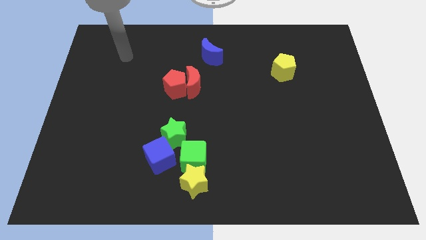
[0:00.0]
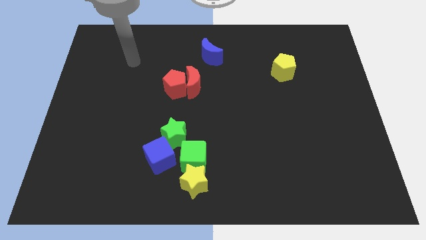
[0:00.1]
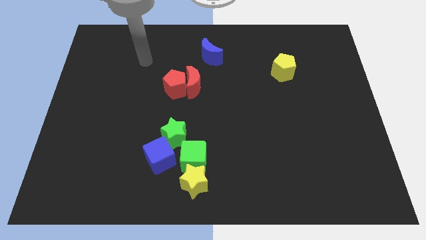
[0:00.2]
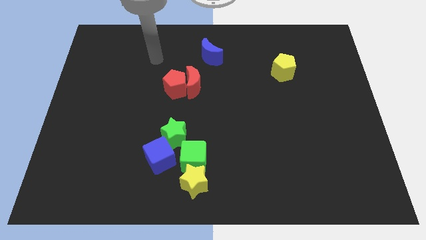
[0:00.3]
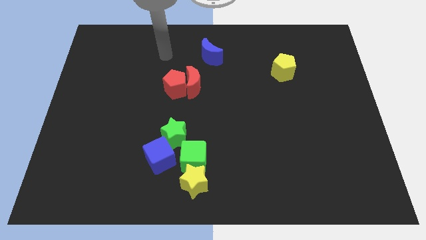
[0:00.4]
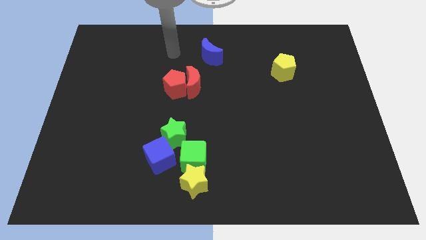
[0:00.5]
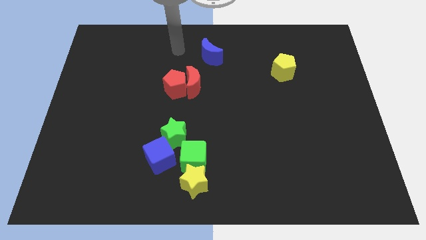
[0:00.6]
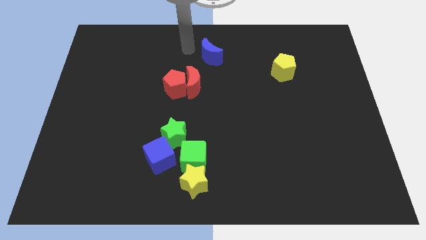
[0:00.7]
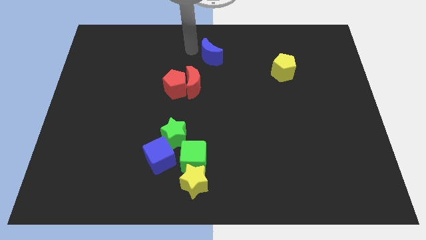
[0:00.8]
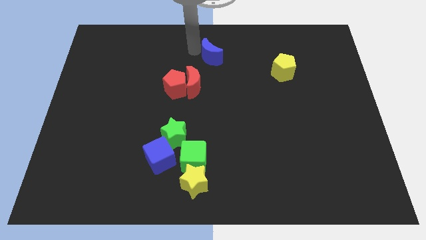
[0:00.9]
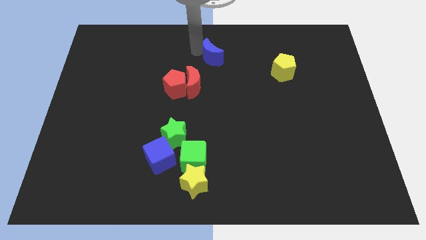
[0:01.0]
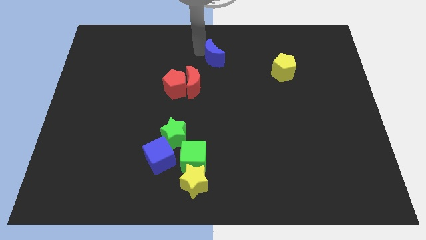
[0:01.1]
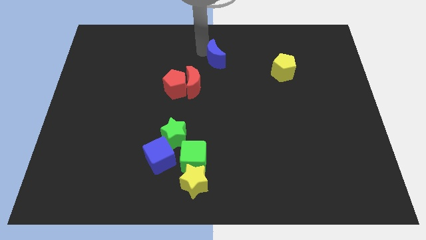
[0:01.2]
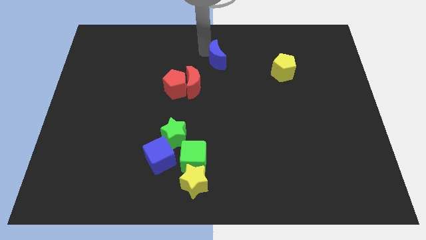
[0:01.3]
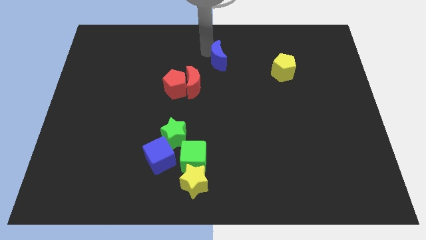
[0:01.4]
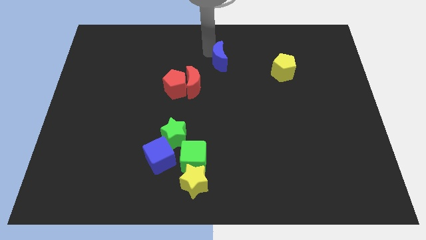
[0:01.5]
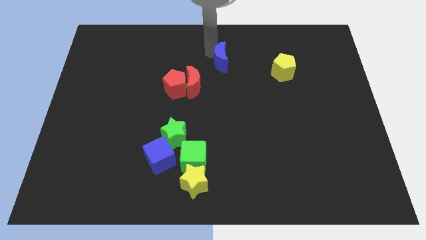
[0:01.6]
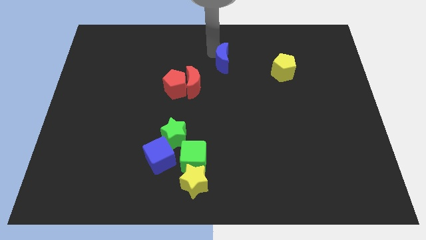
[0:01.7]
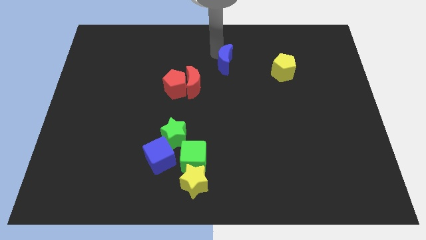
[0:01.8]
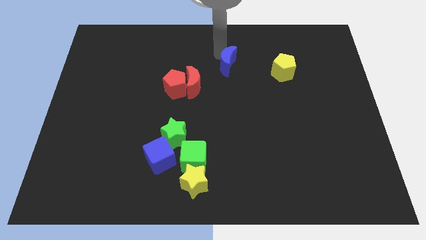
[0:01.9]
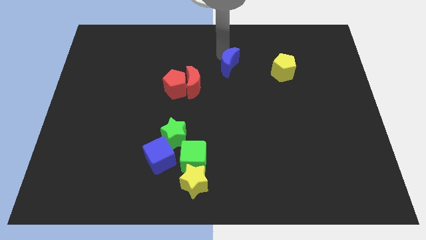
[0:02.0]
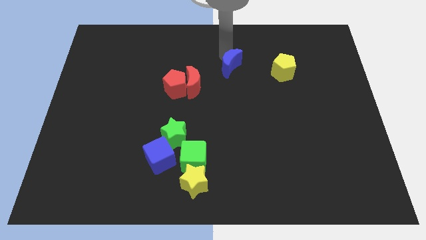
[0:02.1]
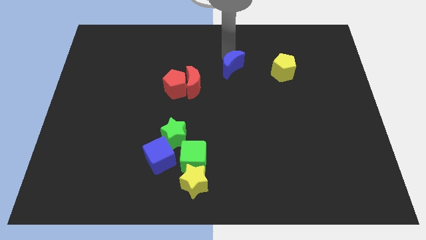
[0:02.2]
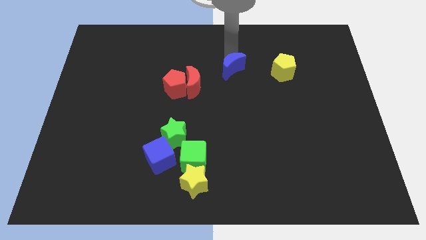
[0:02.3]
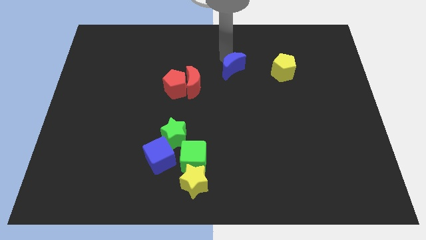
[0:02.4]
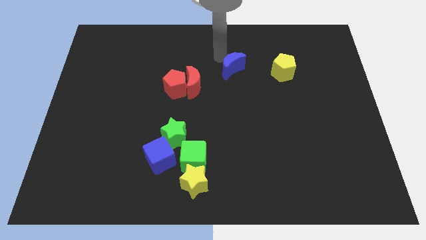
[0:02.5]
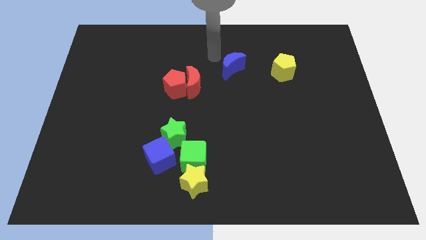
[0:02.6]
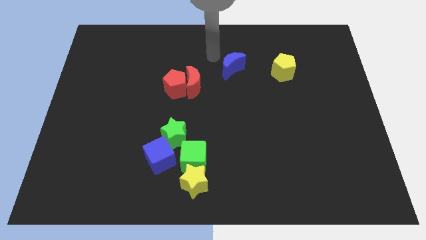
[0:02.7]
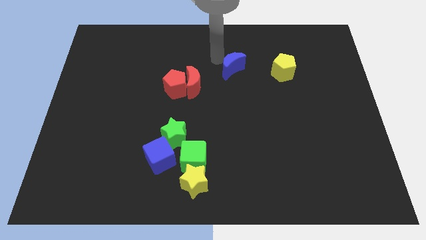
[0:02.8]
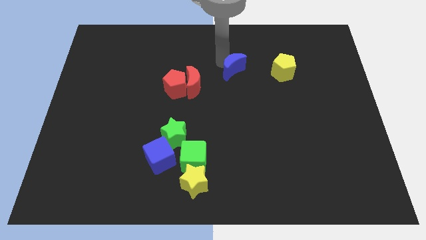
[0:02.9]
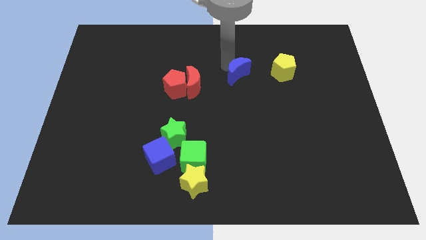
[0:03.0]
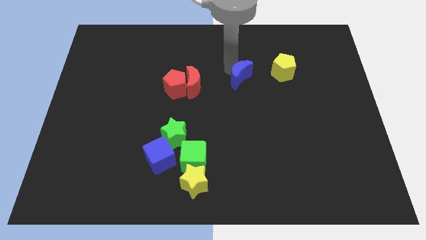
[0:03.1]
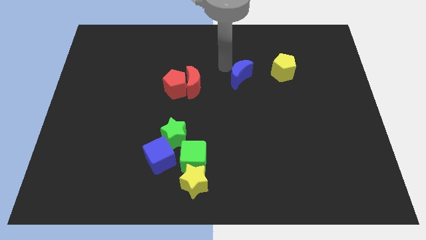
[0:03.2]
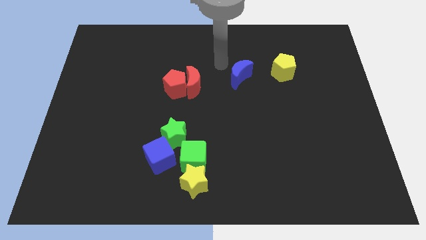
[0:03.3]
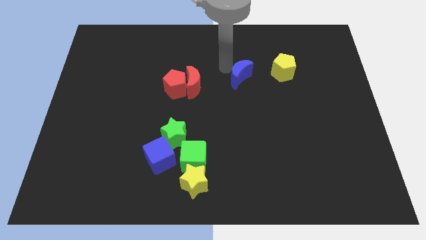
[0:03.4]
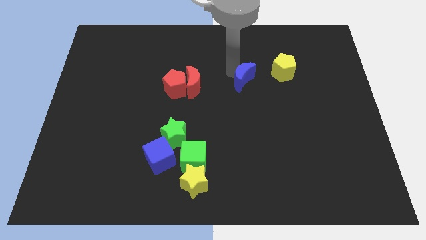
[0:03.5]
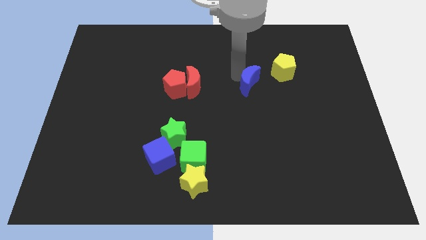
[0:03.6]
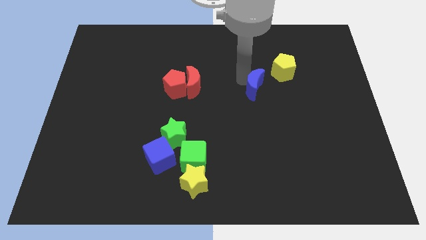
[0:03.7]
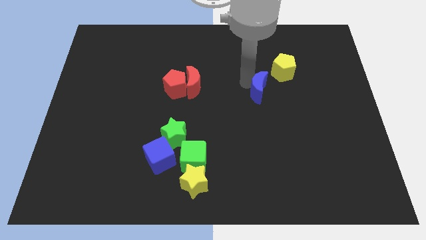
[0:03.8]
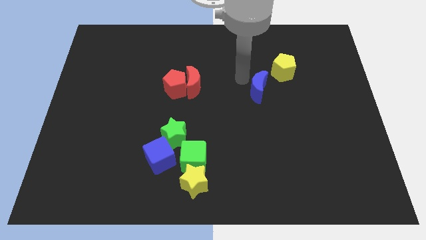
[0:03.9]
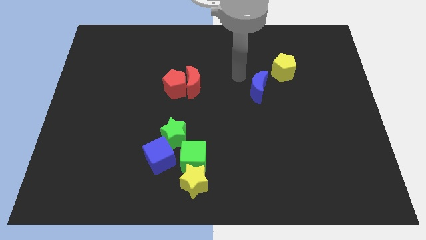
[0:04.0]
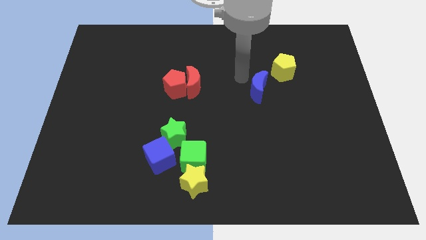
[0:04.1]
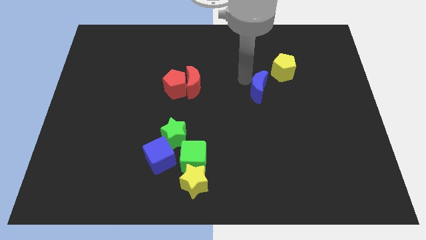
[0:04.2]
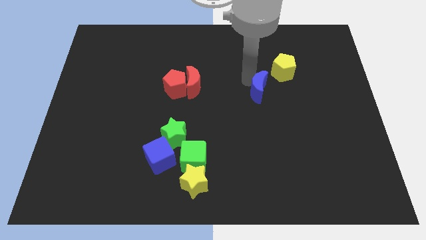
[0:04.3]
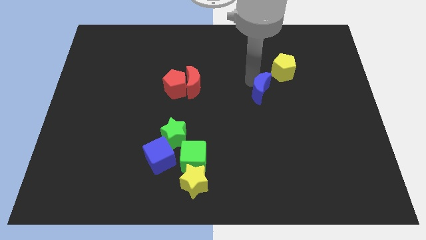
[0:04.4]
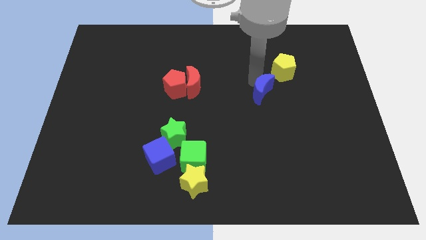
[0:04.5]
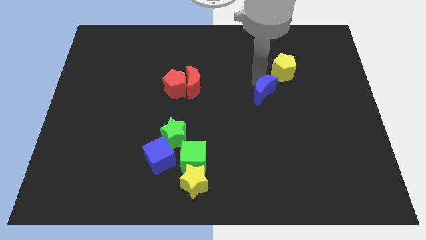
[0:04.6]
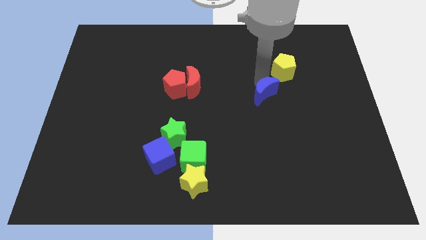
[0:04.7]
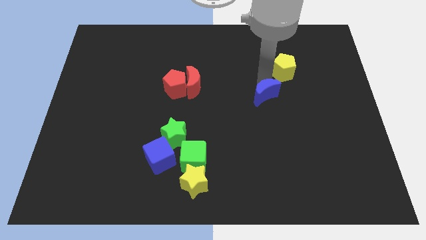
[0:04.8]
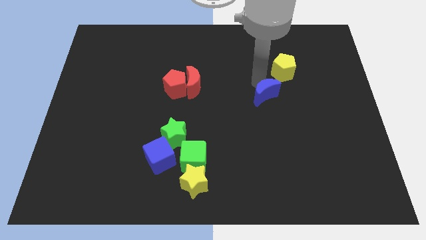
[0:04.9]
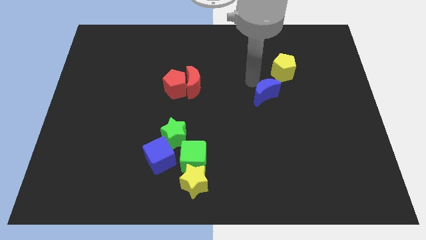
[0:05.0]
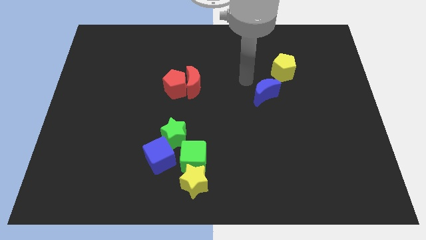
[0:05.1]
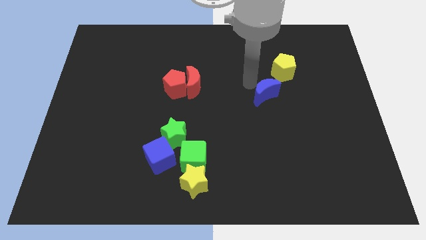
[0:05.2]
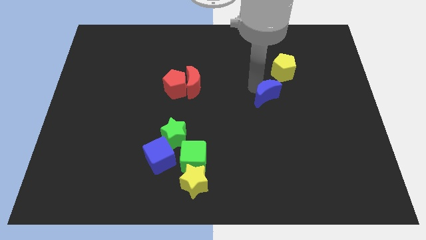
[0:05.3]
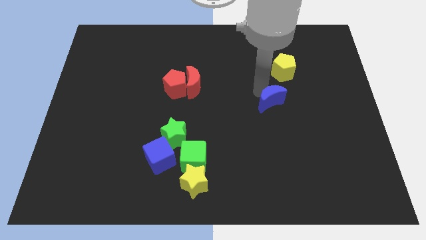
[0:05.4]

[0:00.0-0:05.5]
push the blue moon diagonally down and right

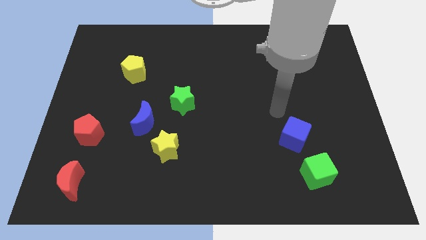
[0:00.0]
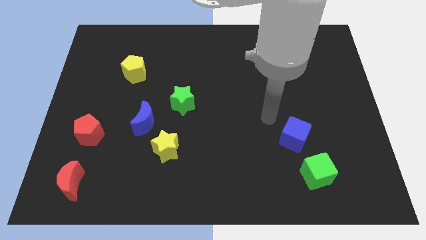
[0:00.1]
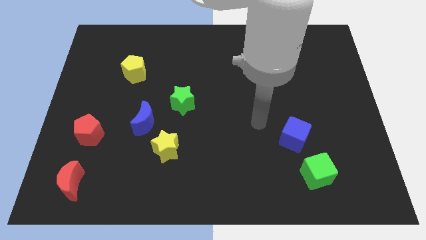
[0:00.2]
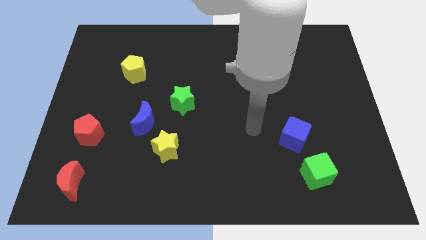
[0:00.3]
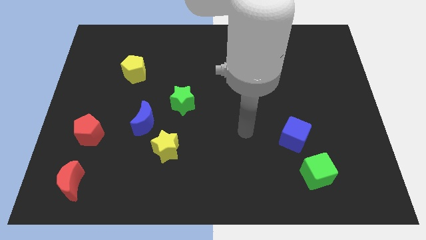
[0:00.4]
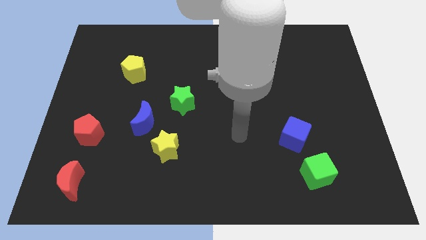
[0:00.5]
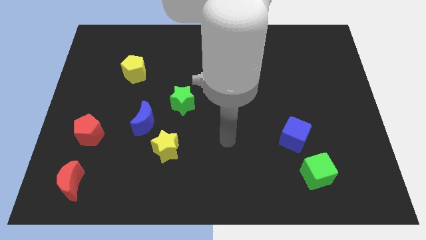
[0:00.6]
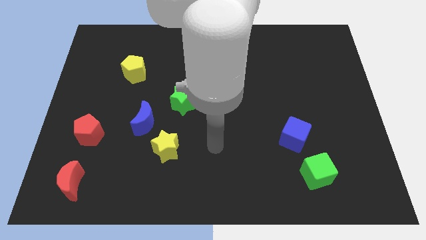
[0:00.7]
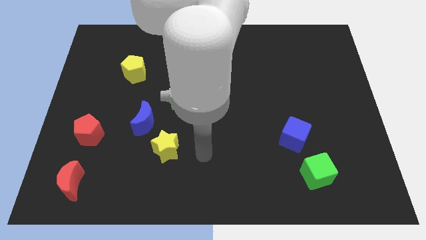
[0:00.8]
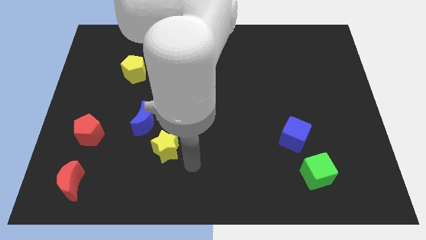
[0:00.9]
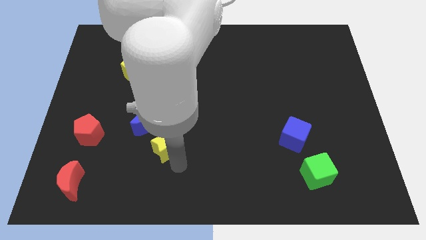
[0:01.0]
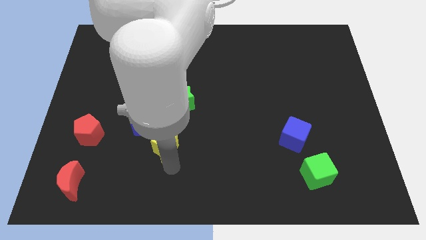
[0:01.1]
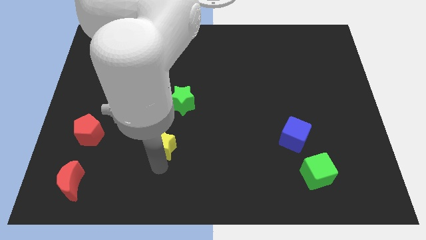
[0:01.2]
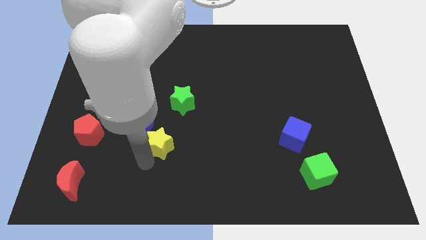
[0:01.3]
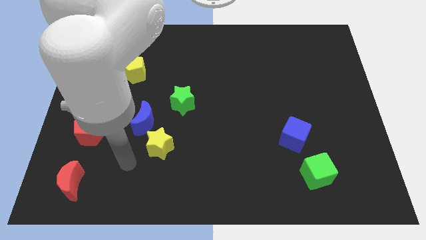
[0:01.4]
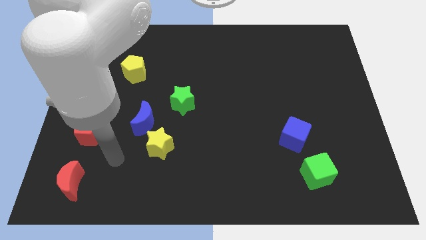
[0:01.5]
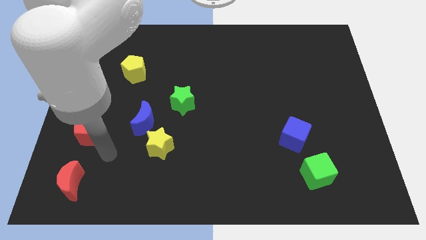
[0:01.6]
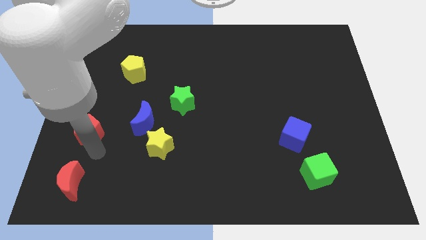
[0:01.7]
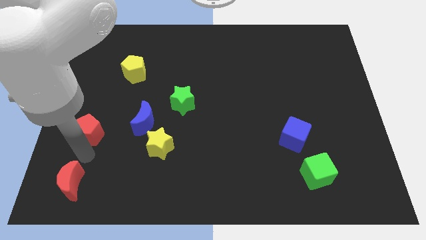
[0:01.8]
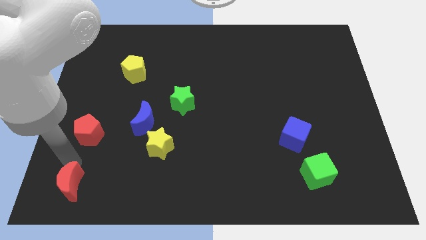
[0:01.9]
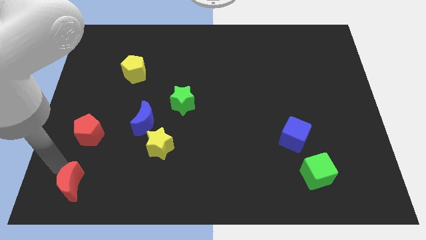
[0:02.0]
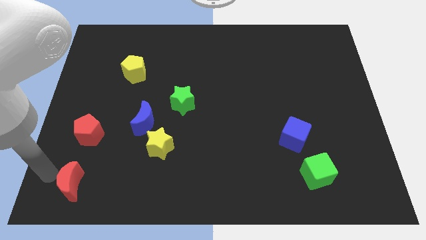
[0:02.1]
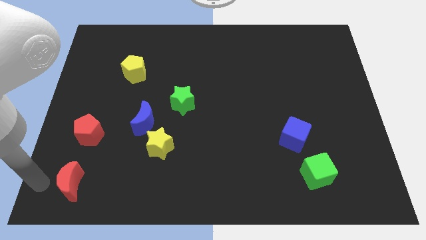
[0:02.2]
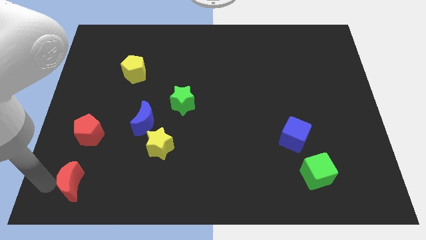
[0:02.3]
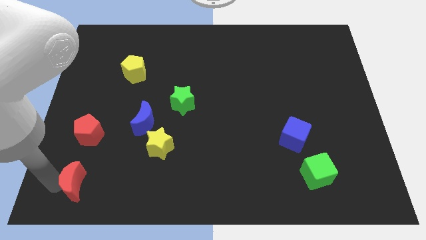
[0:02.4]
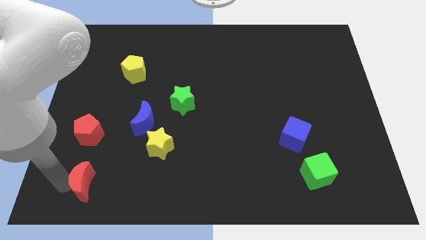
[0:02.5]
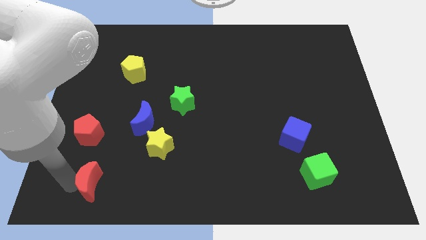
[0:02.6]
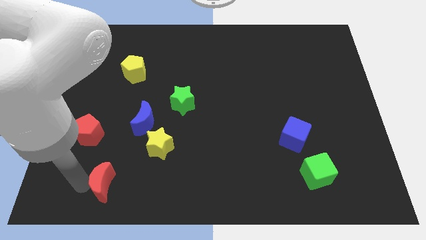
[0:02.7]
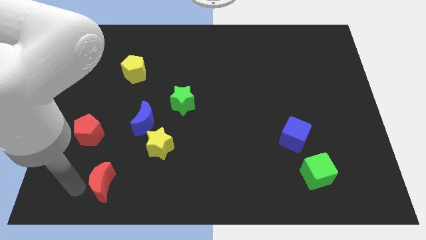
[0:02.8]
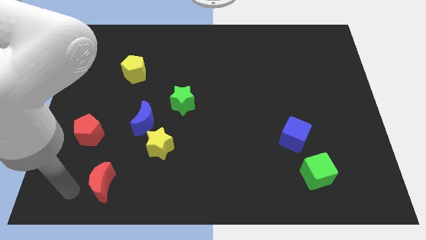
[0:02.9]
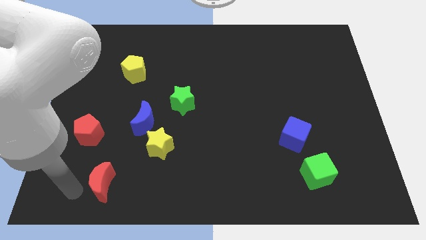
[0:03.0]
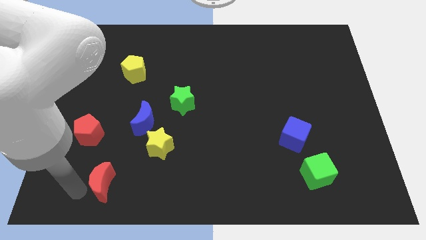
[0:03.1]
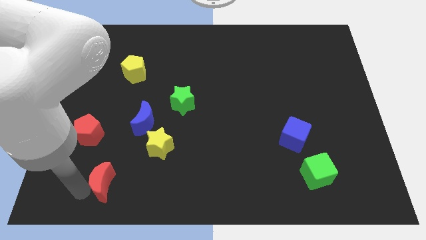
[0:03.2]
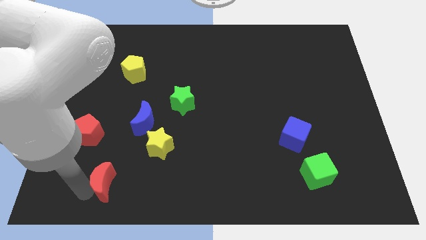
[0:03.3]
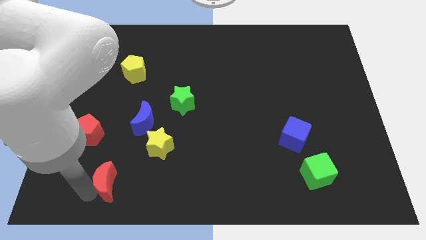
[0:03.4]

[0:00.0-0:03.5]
move the red moon a little bit to the right
